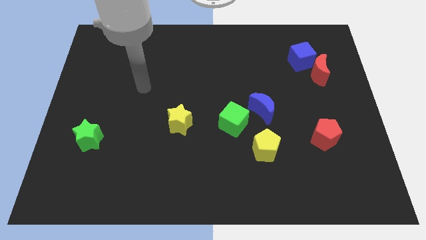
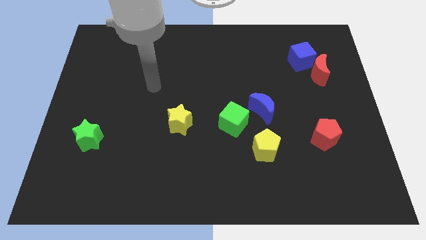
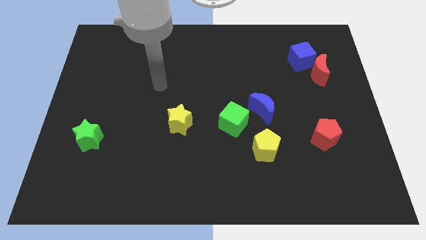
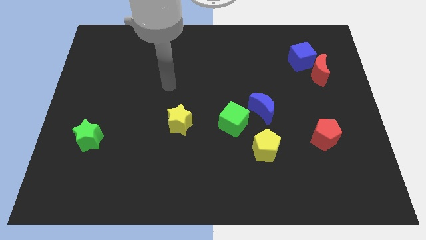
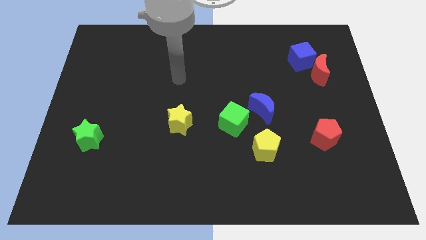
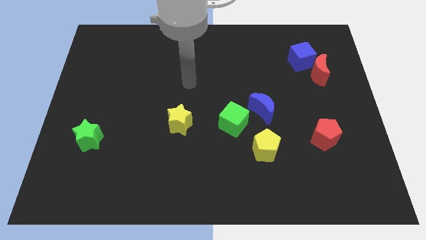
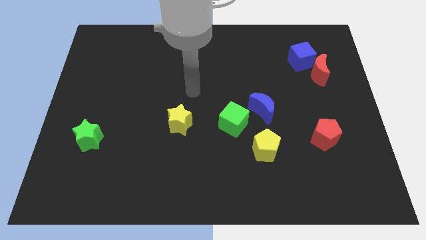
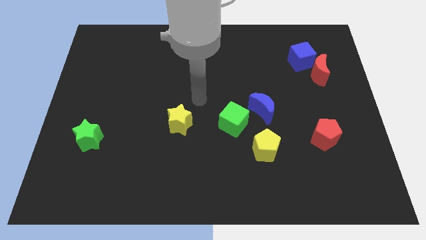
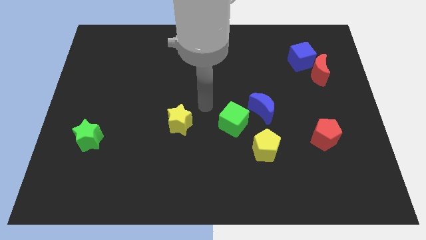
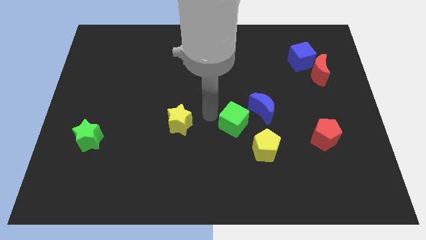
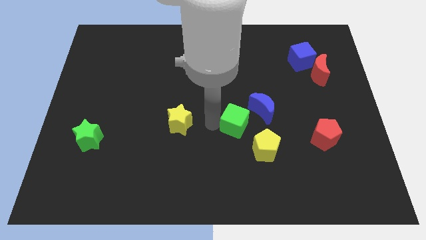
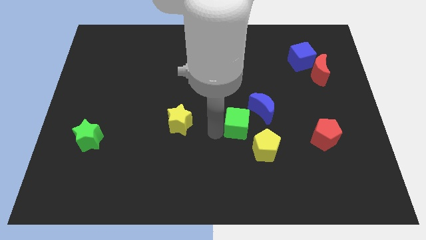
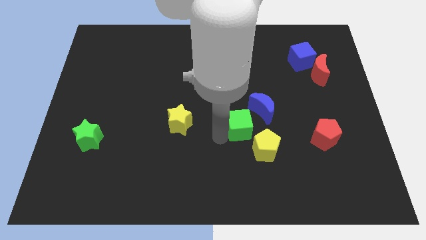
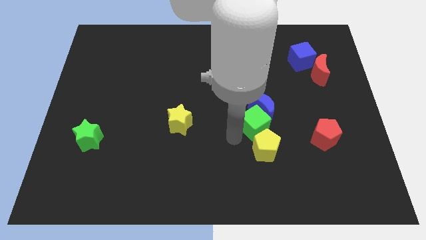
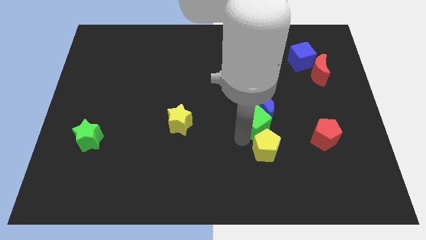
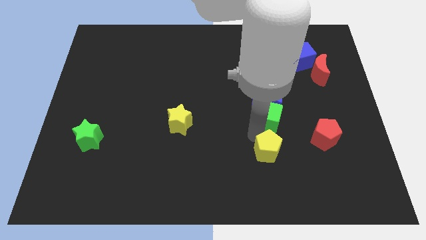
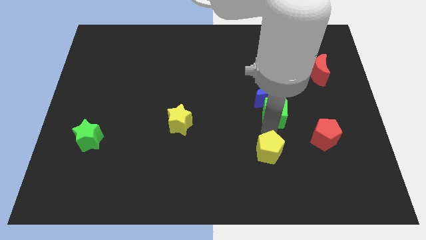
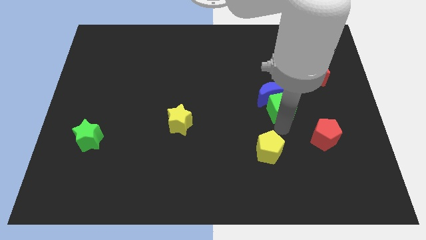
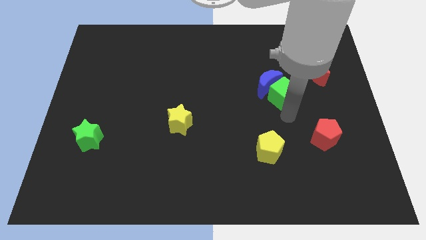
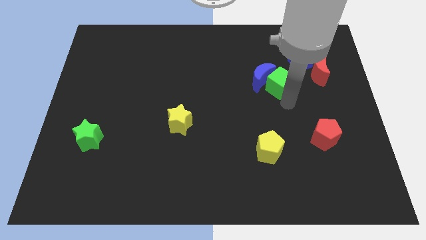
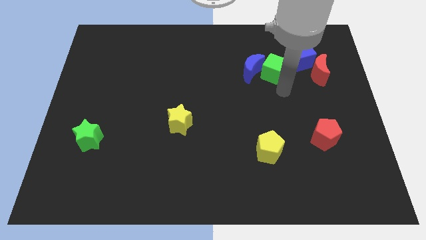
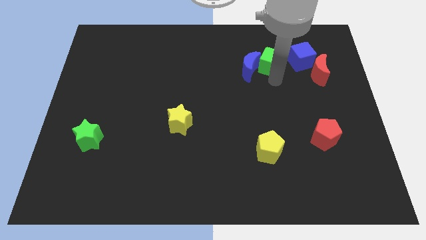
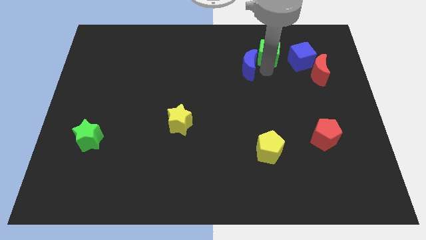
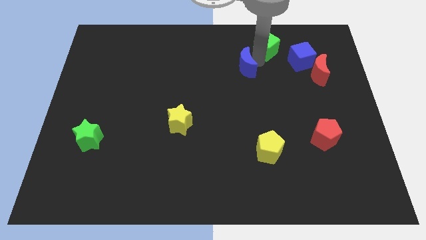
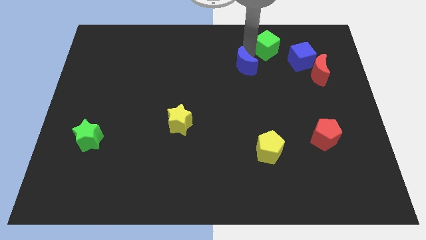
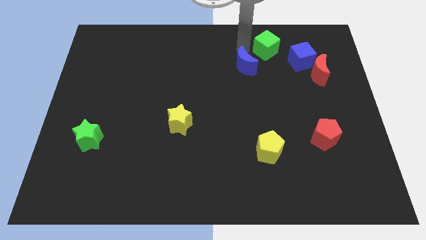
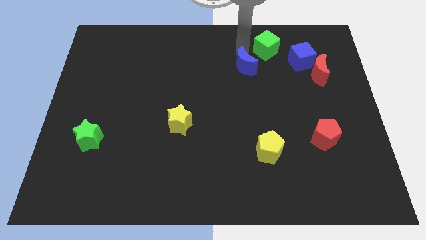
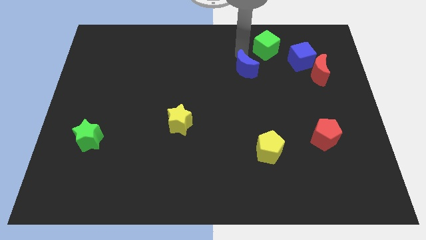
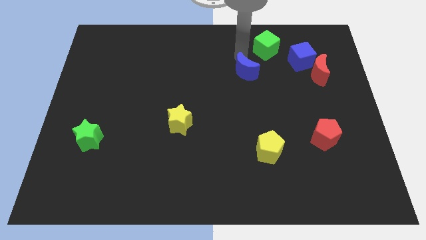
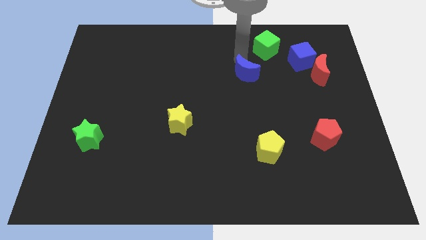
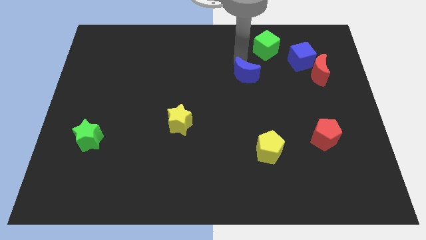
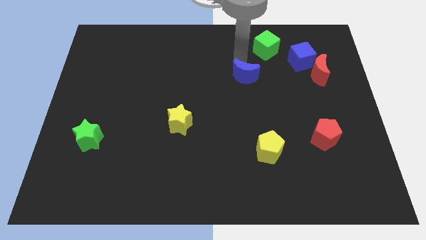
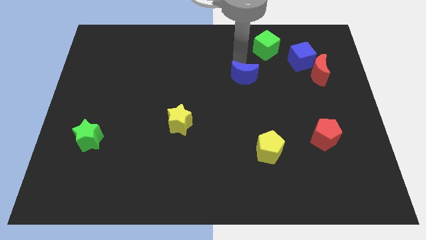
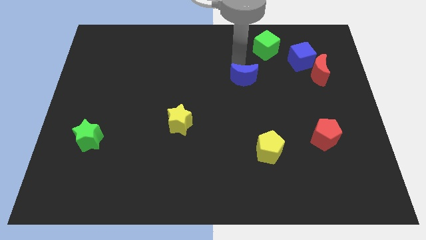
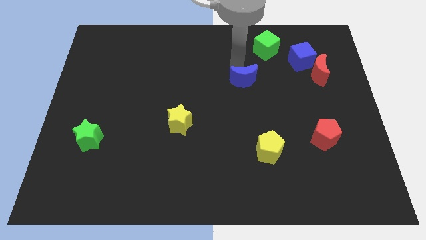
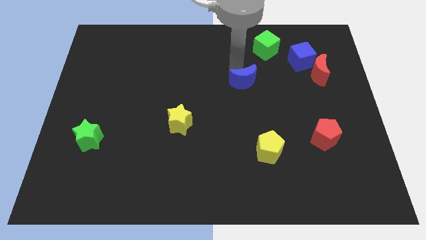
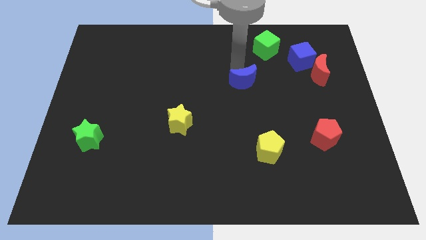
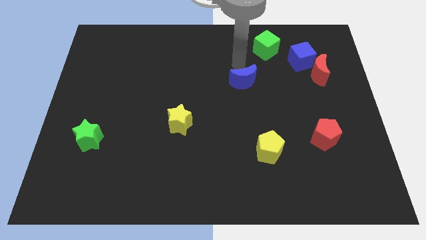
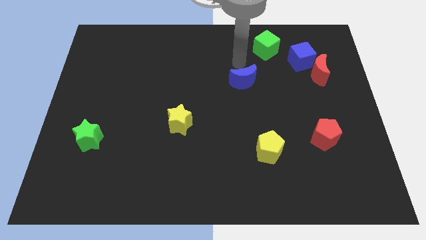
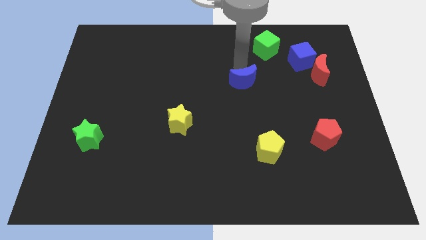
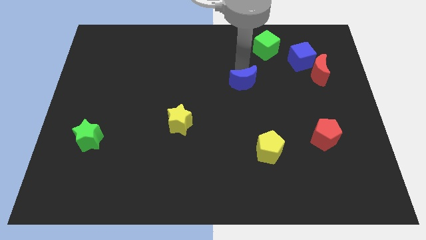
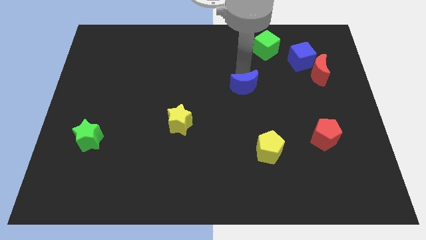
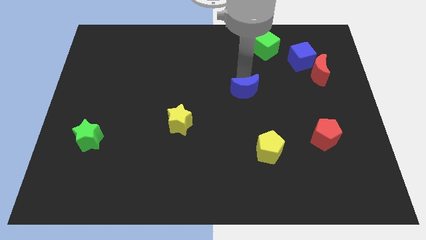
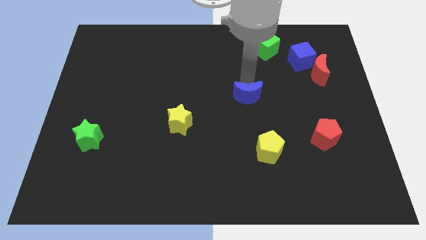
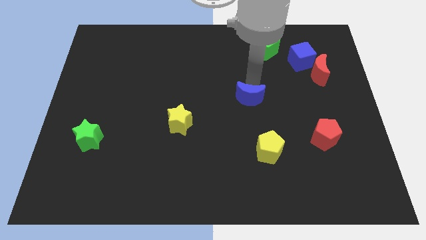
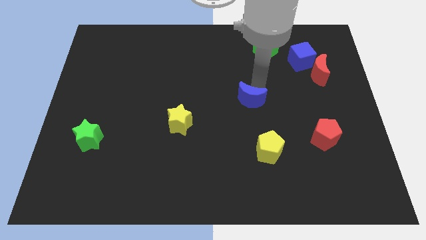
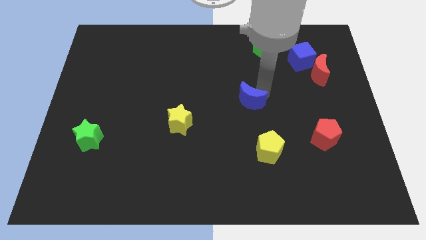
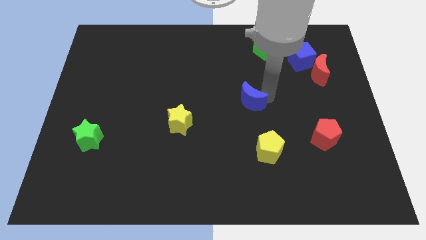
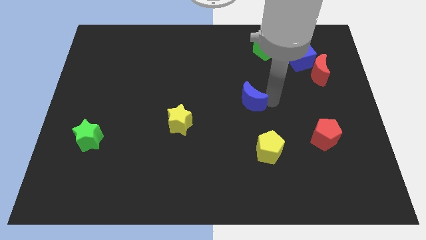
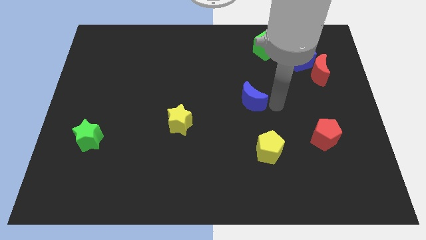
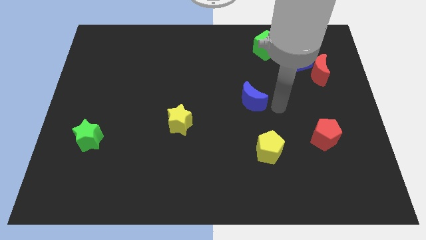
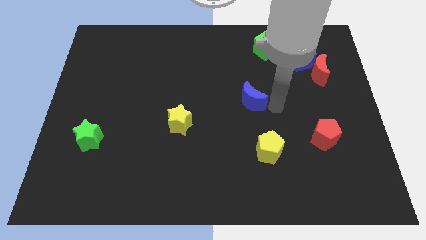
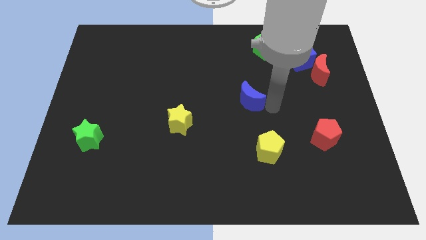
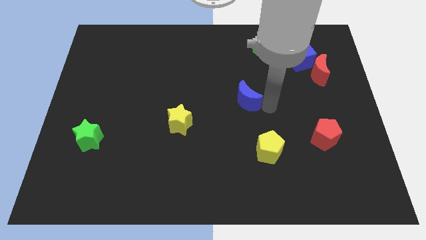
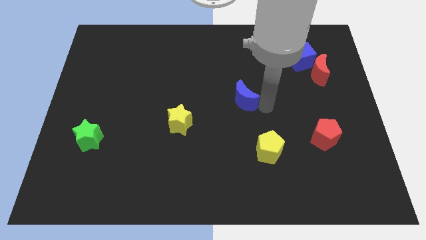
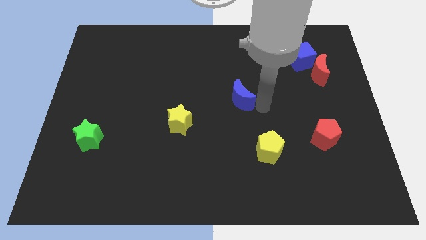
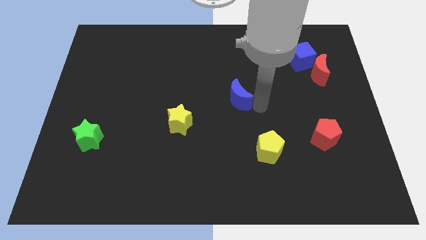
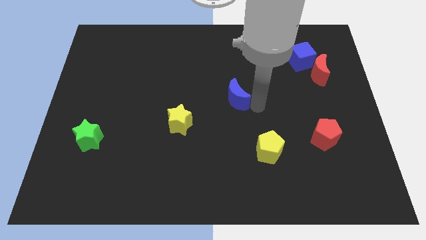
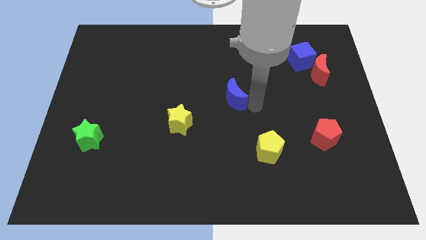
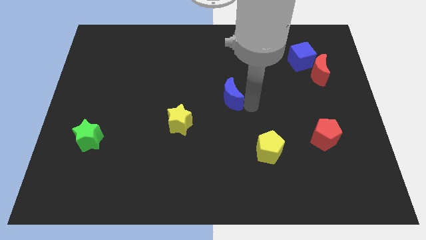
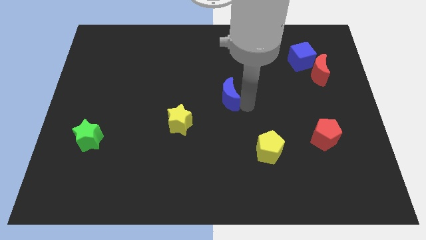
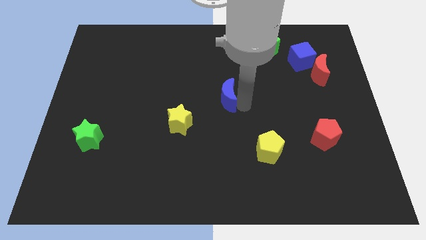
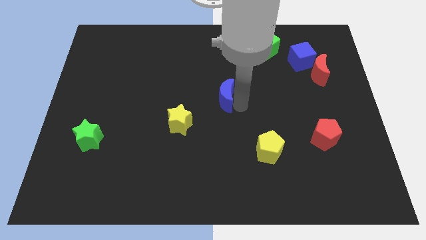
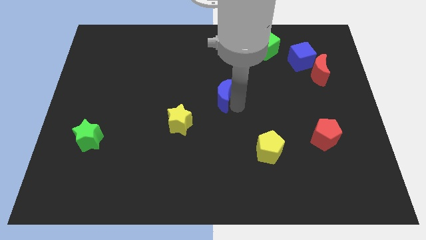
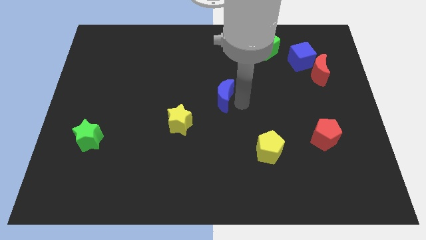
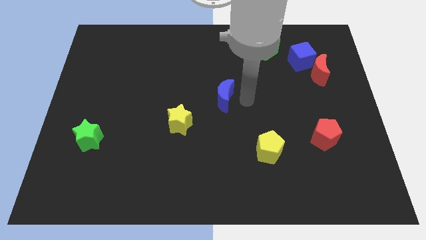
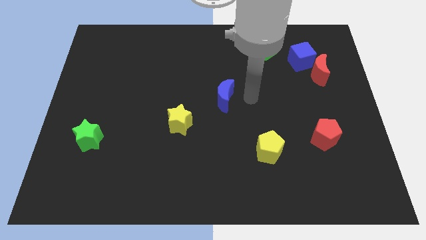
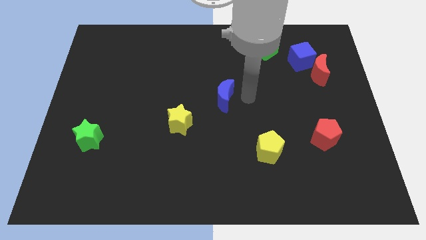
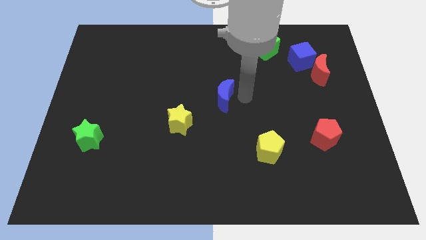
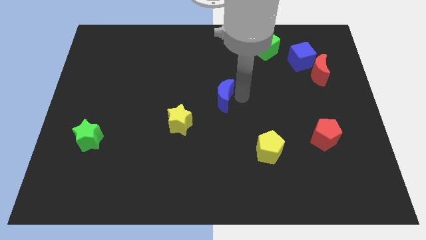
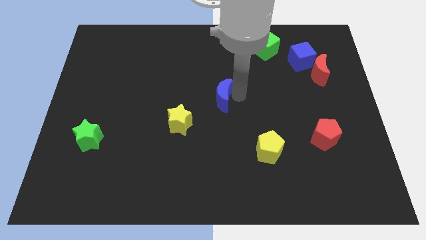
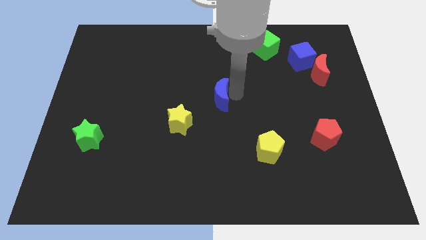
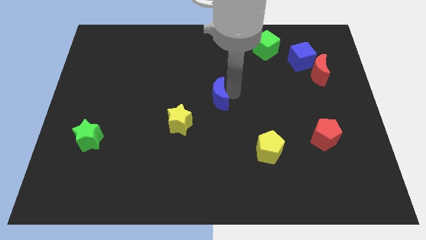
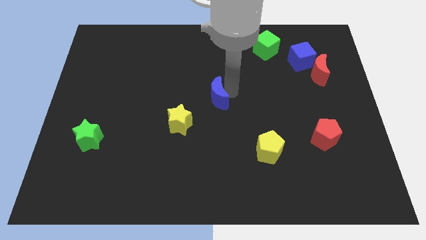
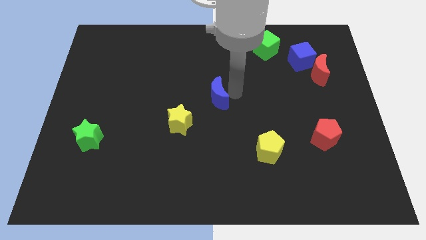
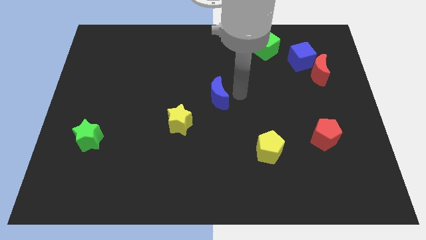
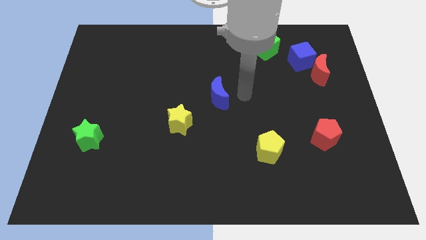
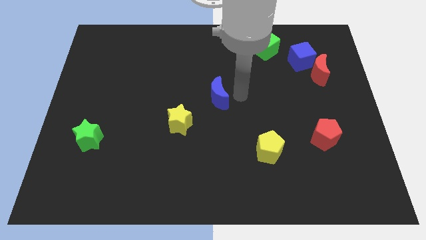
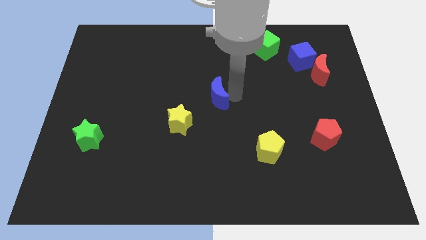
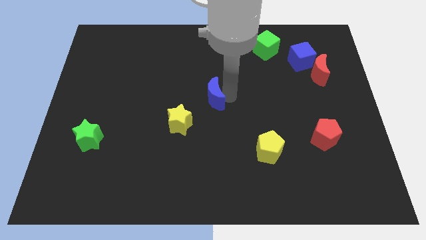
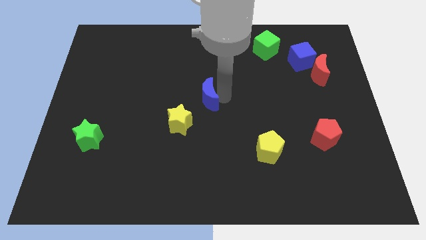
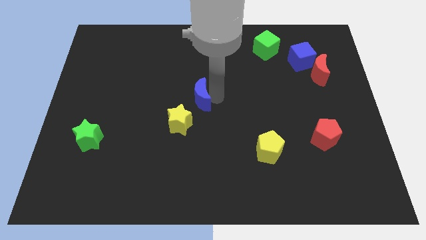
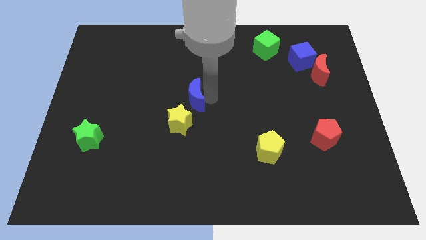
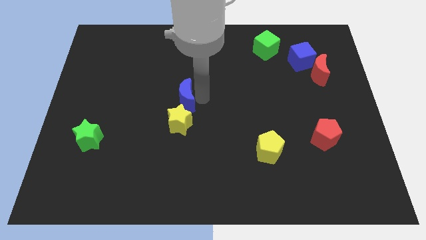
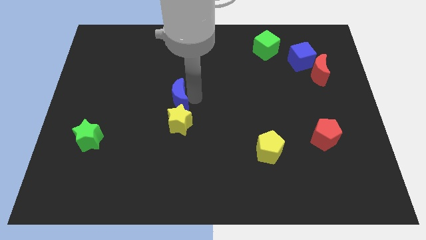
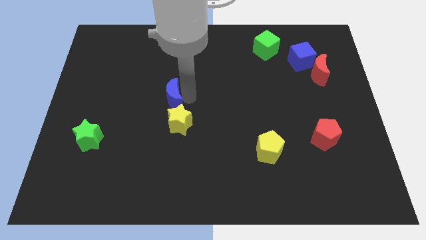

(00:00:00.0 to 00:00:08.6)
push the blue moon left
